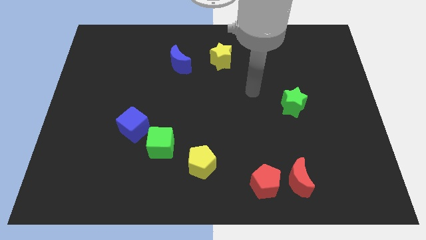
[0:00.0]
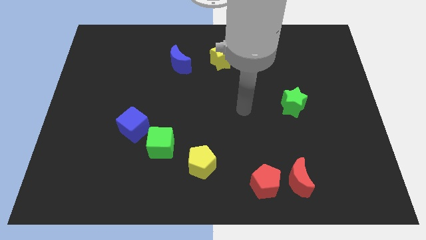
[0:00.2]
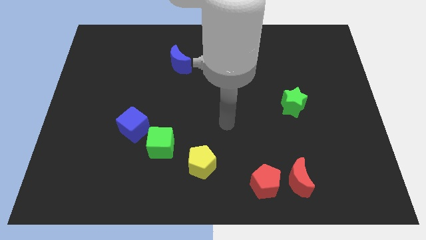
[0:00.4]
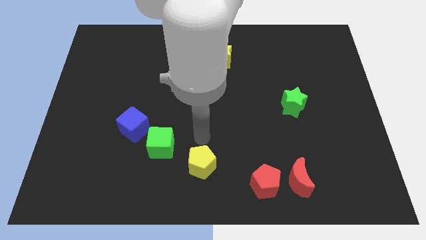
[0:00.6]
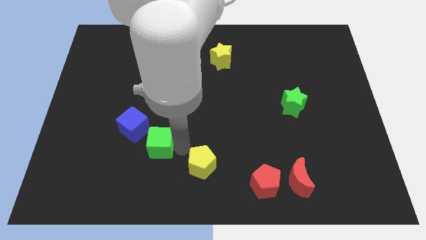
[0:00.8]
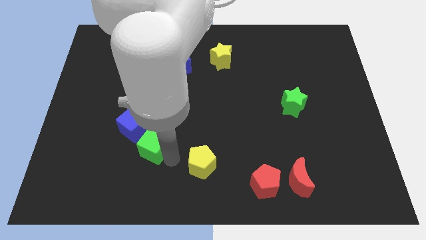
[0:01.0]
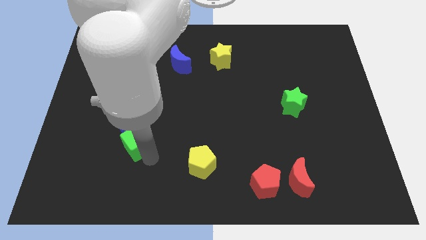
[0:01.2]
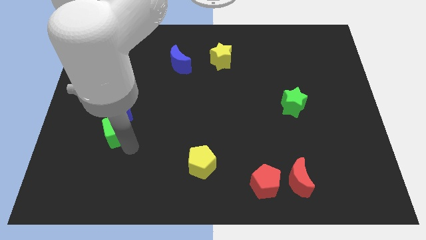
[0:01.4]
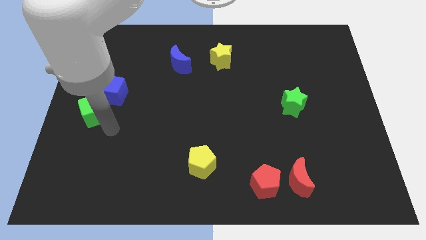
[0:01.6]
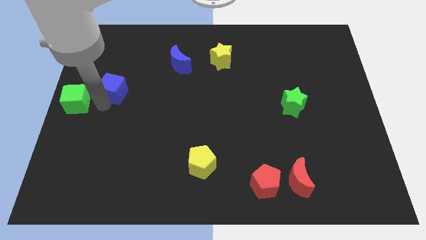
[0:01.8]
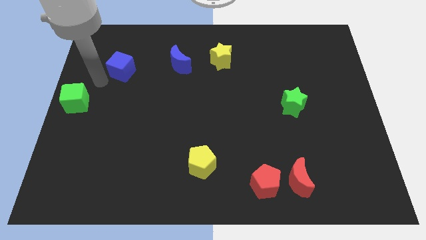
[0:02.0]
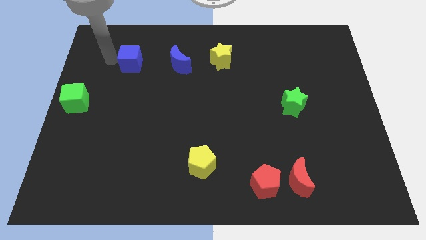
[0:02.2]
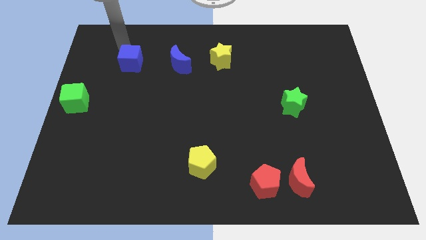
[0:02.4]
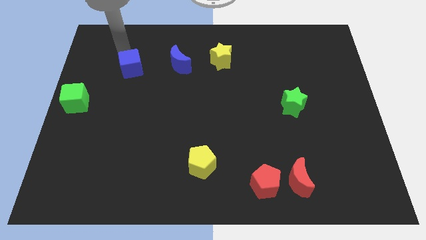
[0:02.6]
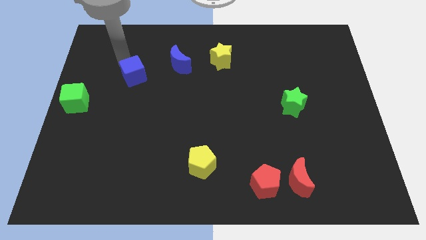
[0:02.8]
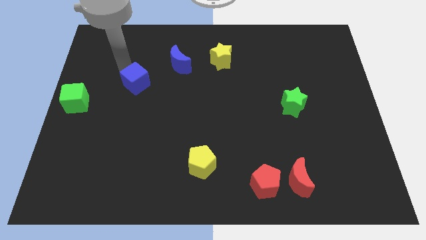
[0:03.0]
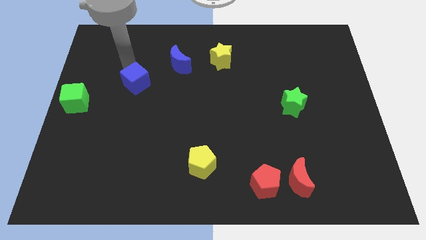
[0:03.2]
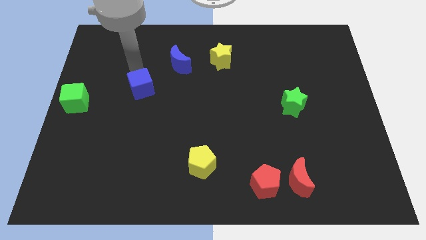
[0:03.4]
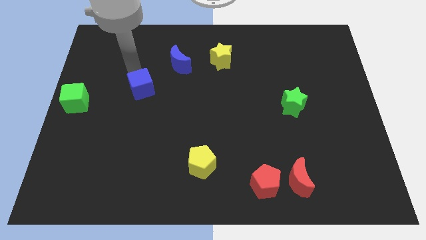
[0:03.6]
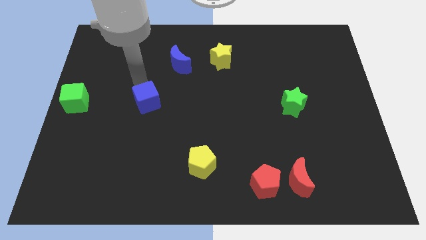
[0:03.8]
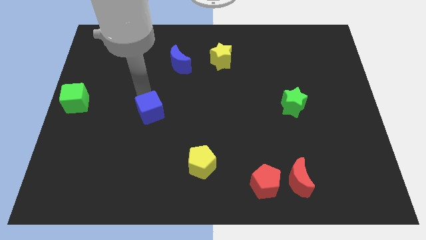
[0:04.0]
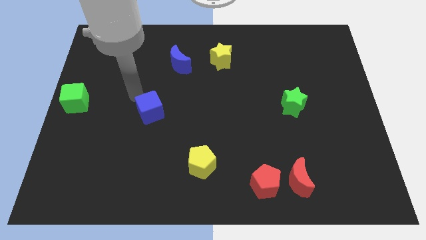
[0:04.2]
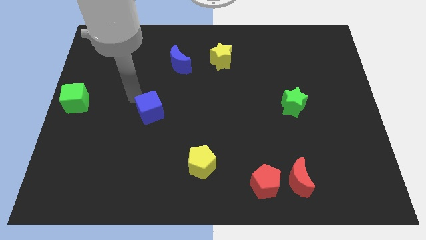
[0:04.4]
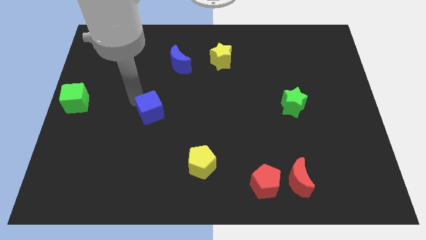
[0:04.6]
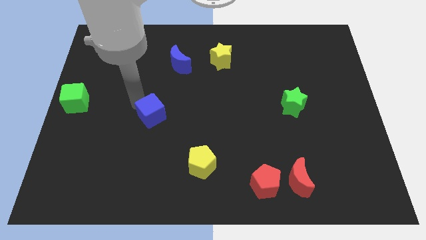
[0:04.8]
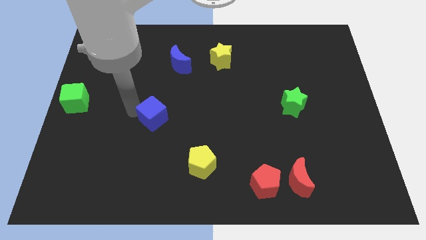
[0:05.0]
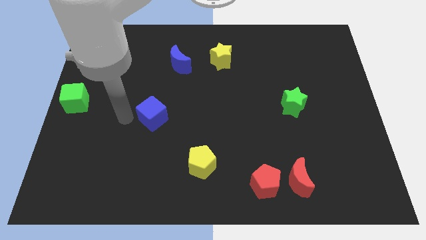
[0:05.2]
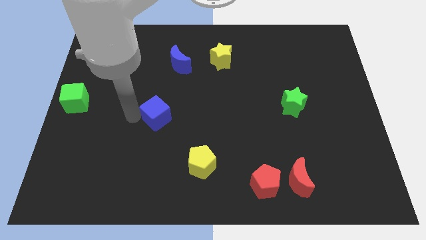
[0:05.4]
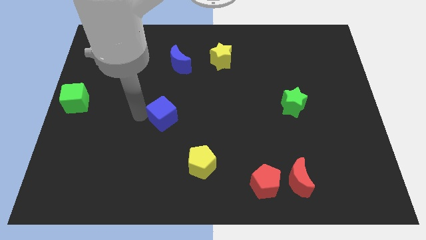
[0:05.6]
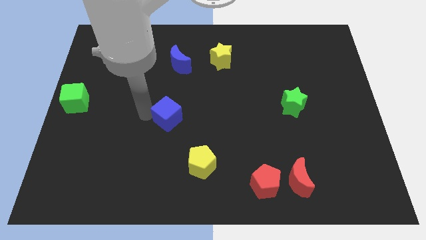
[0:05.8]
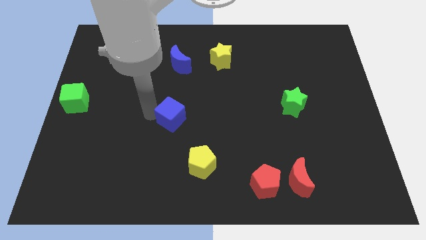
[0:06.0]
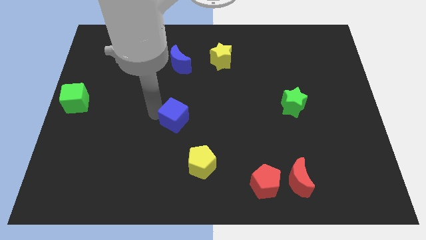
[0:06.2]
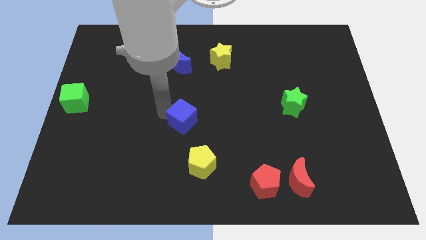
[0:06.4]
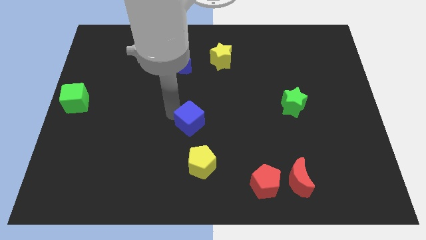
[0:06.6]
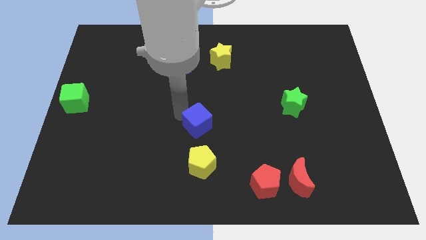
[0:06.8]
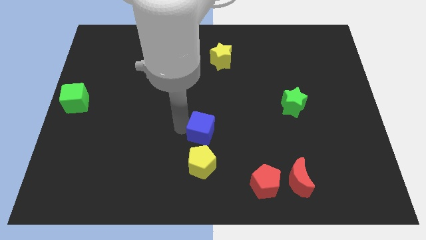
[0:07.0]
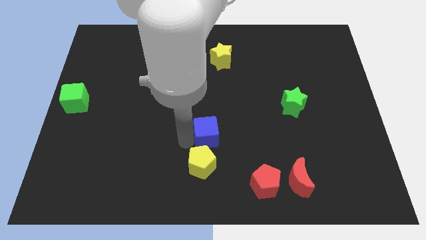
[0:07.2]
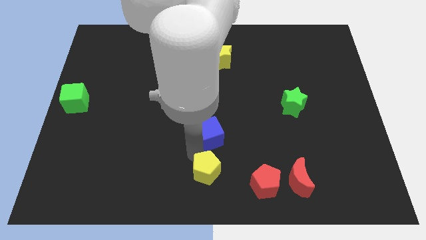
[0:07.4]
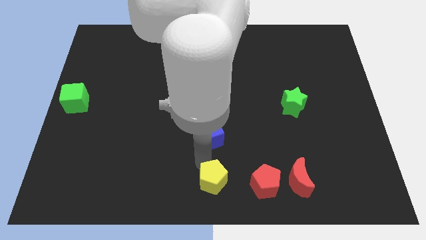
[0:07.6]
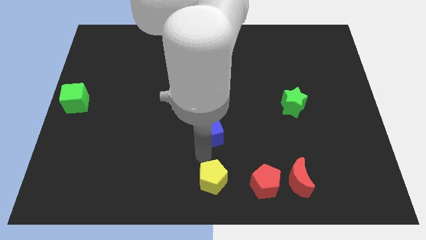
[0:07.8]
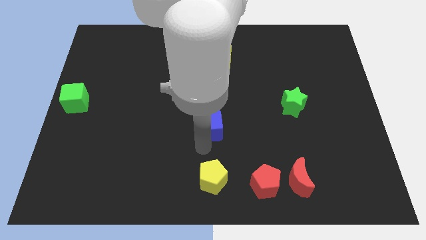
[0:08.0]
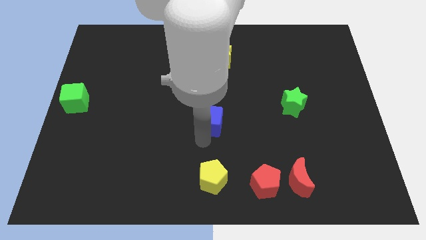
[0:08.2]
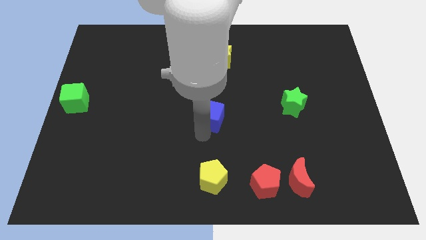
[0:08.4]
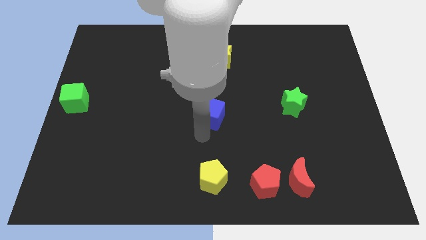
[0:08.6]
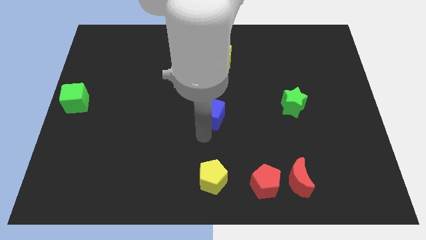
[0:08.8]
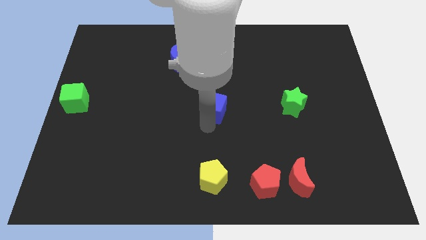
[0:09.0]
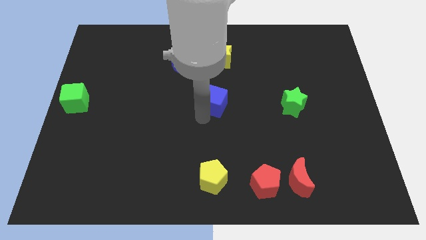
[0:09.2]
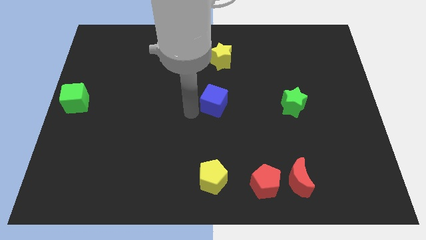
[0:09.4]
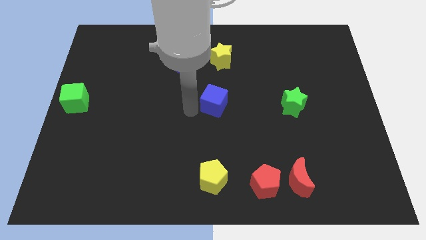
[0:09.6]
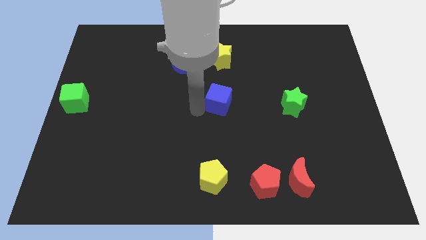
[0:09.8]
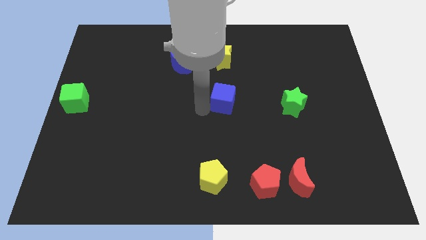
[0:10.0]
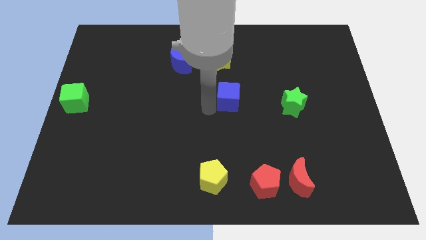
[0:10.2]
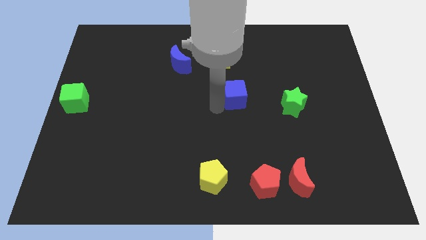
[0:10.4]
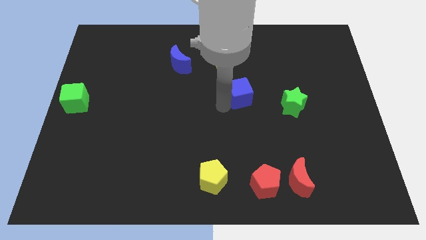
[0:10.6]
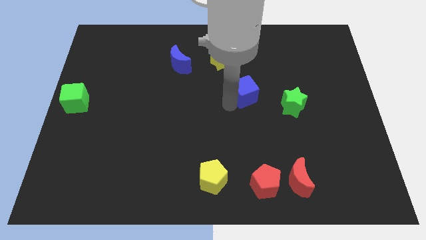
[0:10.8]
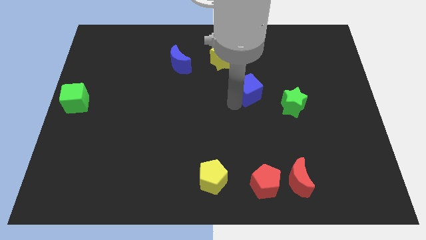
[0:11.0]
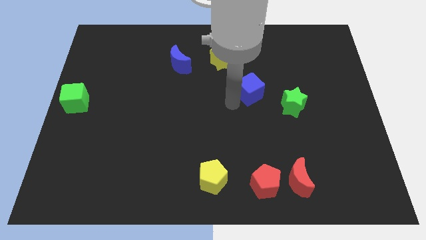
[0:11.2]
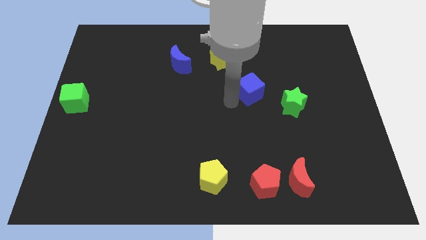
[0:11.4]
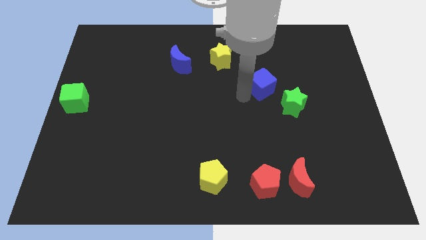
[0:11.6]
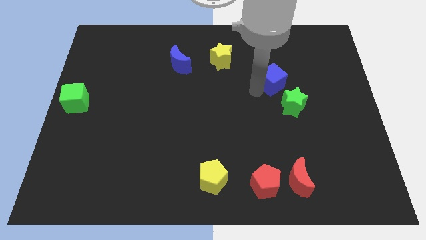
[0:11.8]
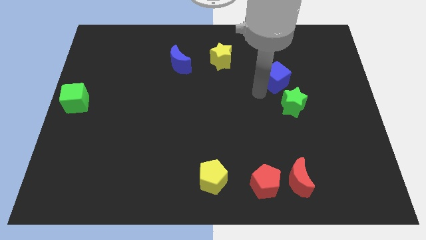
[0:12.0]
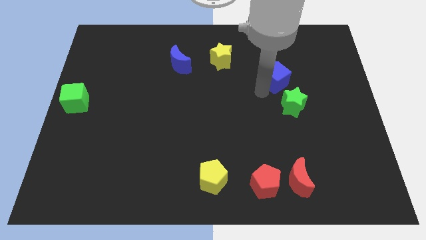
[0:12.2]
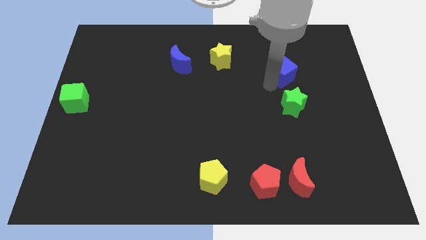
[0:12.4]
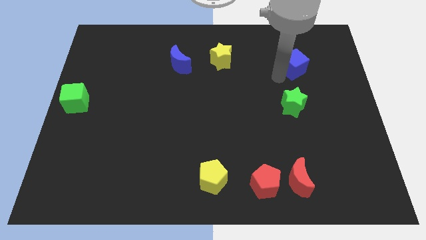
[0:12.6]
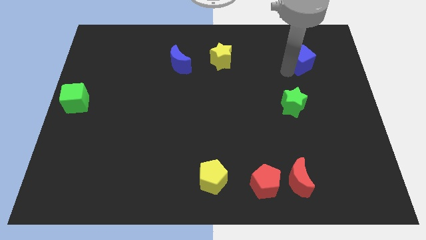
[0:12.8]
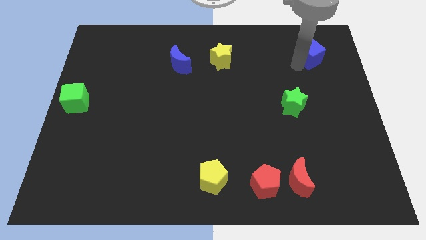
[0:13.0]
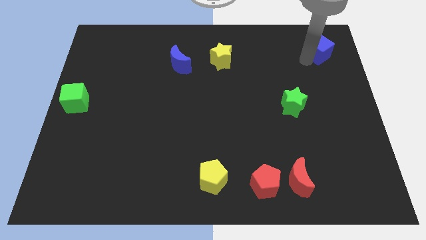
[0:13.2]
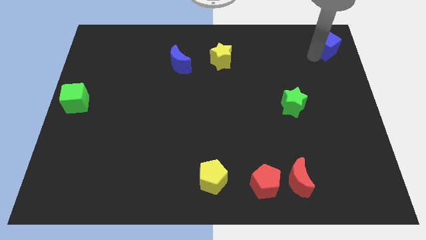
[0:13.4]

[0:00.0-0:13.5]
push the blue cube to the top right of the board

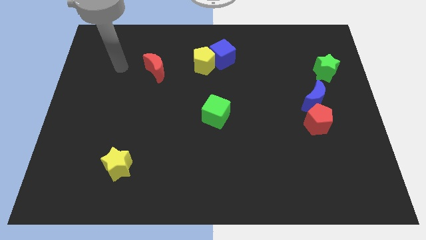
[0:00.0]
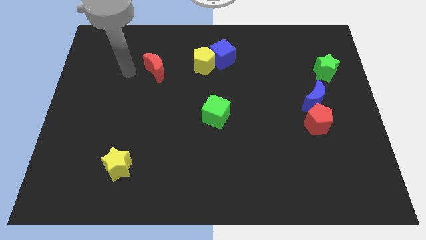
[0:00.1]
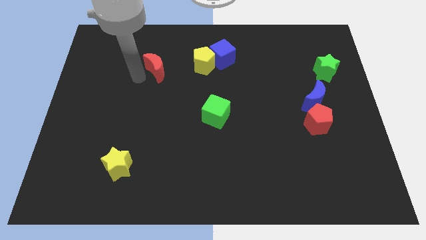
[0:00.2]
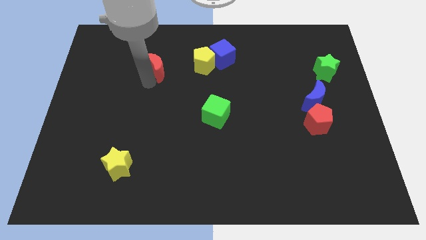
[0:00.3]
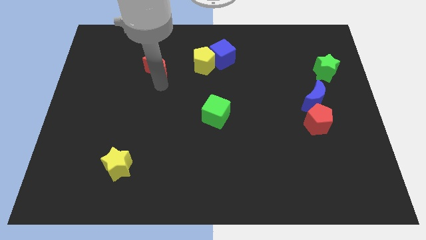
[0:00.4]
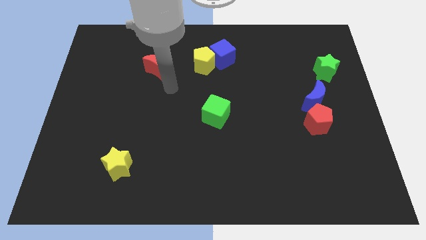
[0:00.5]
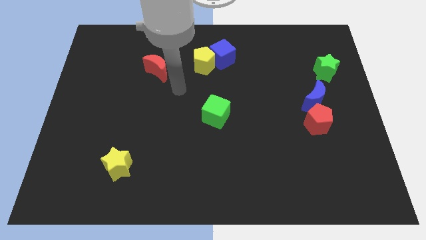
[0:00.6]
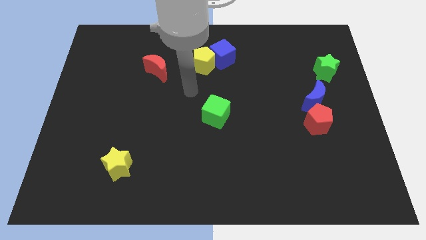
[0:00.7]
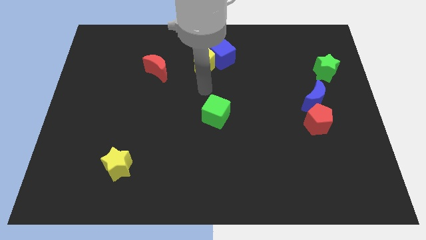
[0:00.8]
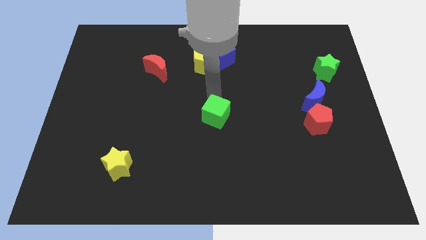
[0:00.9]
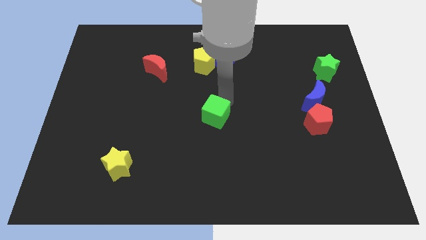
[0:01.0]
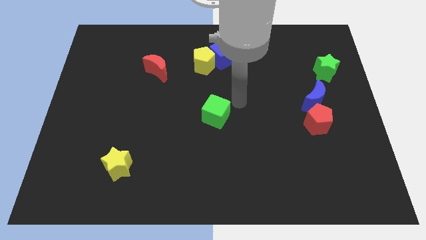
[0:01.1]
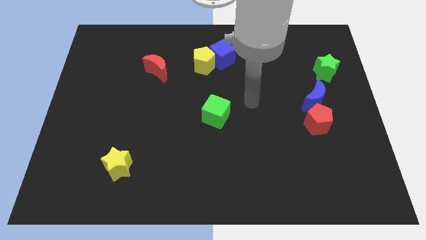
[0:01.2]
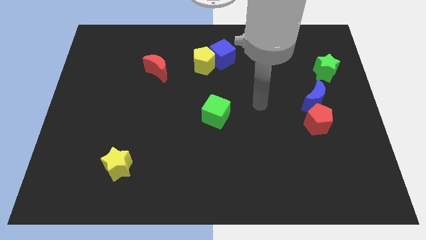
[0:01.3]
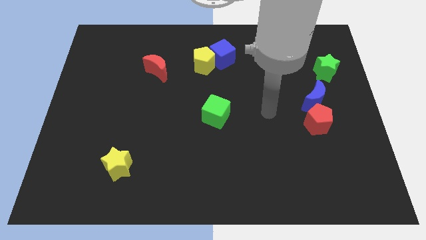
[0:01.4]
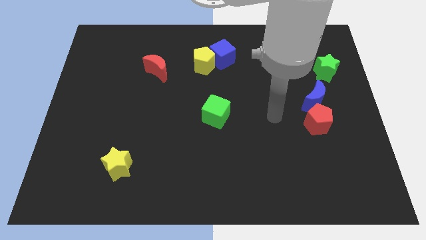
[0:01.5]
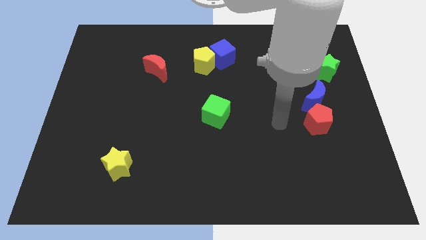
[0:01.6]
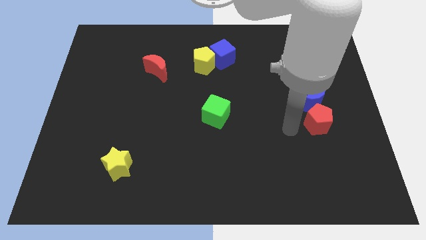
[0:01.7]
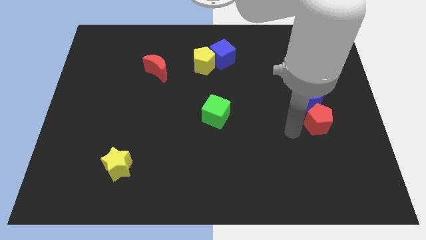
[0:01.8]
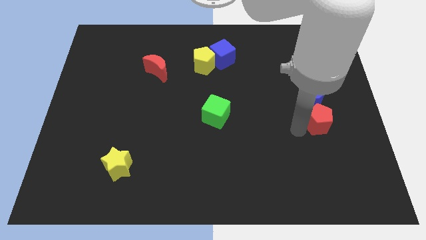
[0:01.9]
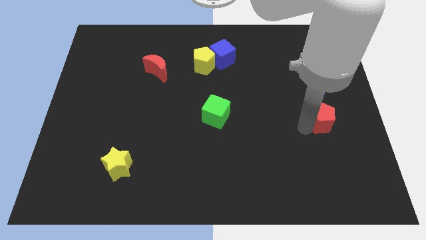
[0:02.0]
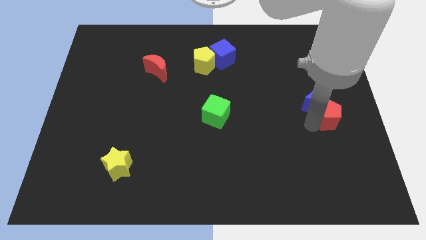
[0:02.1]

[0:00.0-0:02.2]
move the red pentagon to the right side
